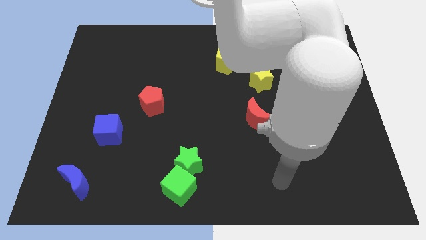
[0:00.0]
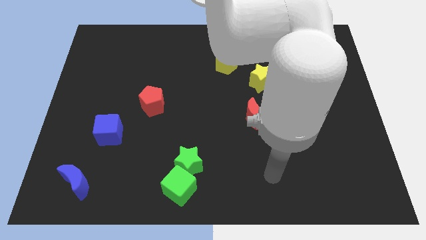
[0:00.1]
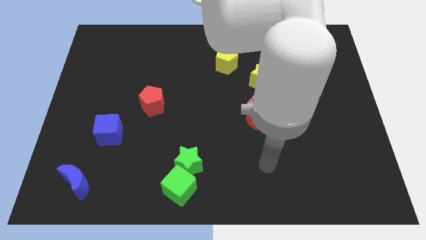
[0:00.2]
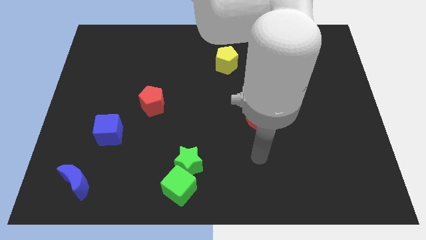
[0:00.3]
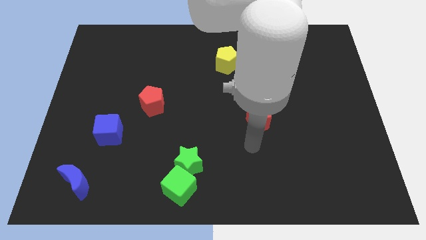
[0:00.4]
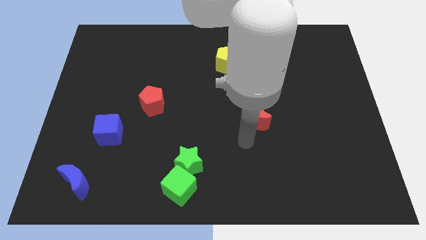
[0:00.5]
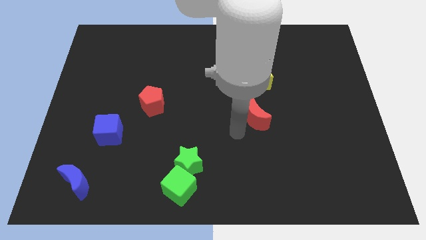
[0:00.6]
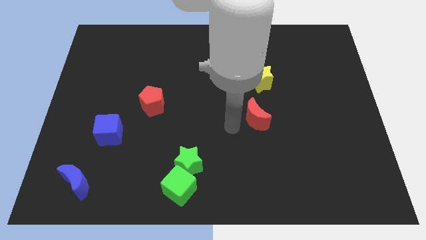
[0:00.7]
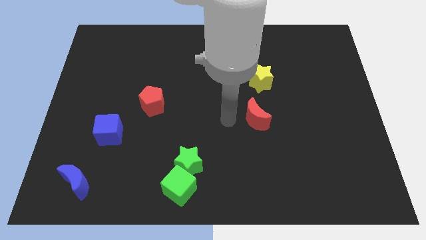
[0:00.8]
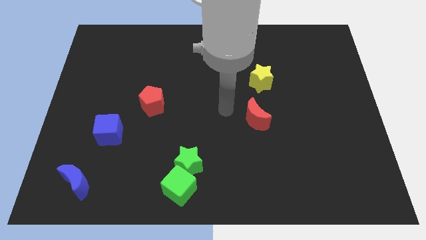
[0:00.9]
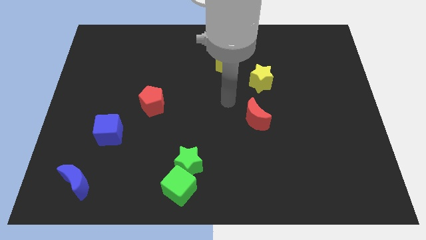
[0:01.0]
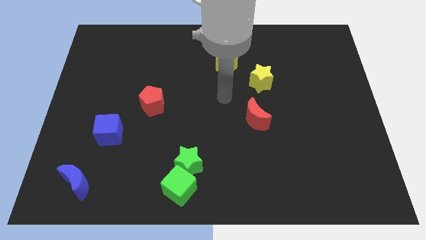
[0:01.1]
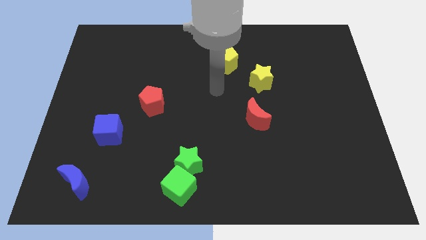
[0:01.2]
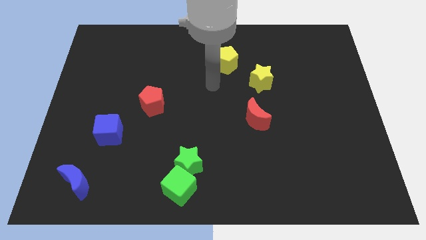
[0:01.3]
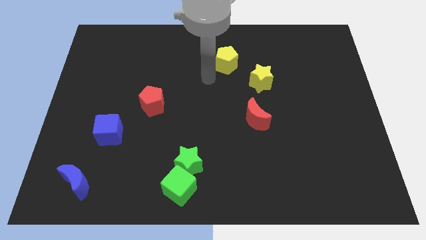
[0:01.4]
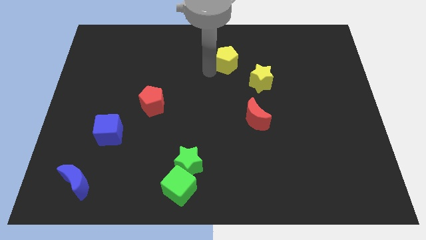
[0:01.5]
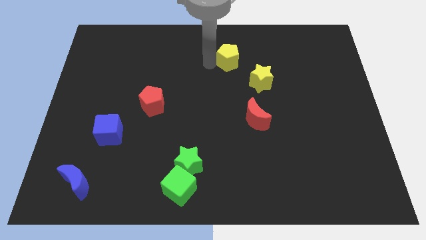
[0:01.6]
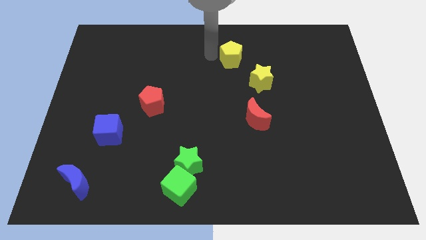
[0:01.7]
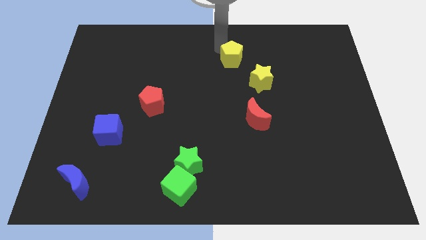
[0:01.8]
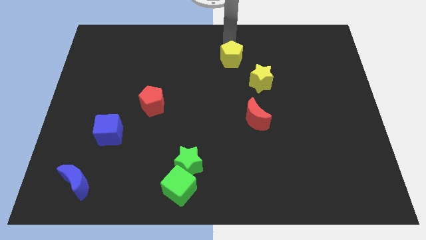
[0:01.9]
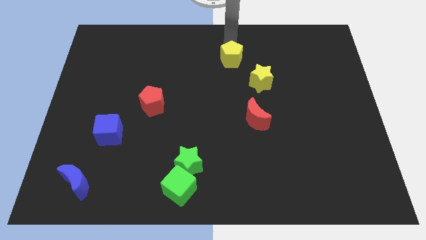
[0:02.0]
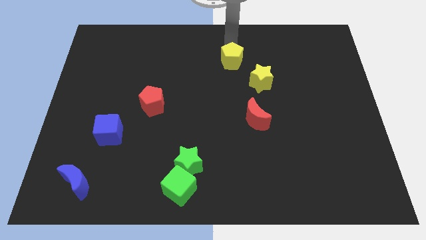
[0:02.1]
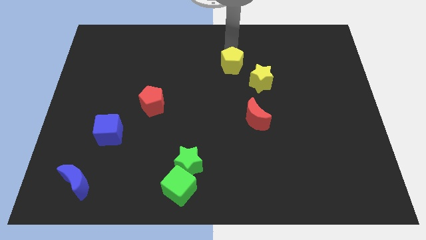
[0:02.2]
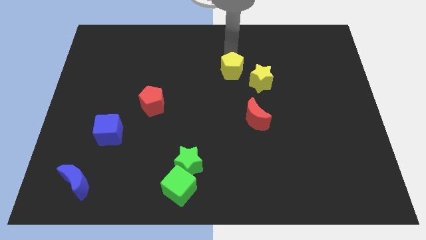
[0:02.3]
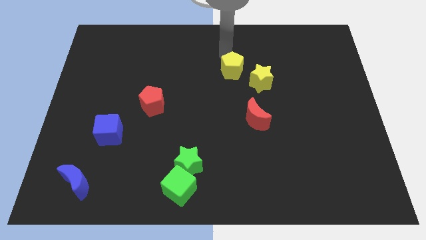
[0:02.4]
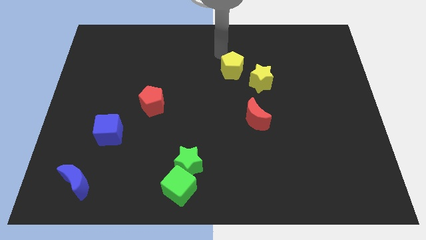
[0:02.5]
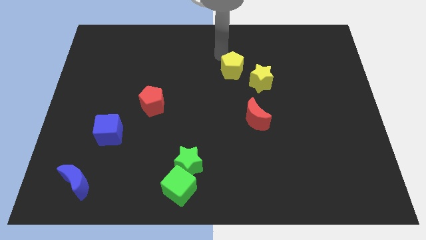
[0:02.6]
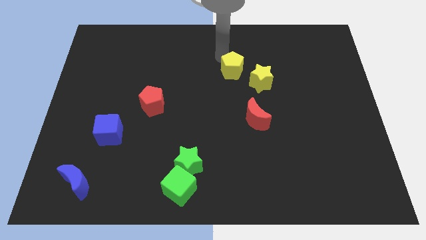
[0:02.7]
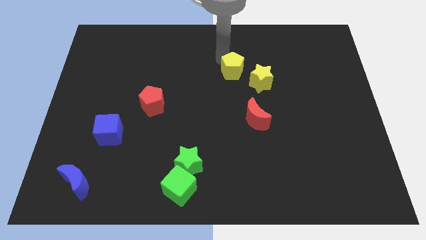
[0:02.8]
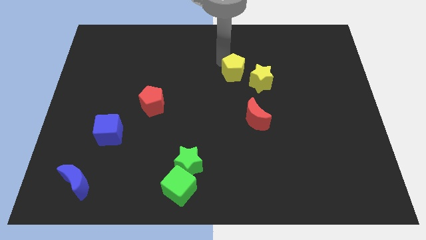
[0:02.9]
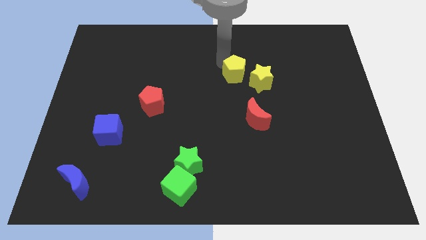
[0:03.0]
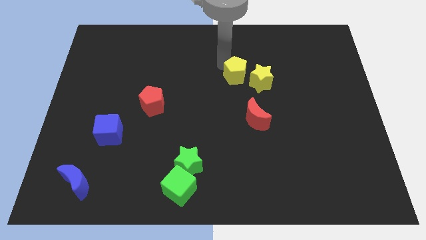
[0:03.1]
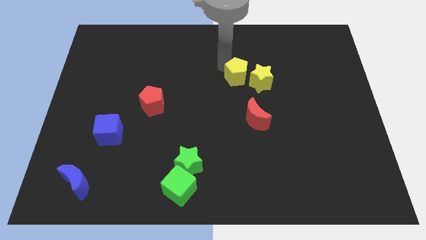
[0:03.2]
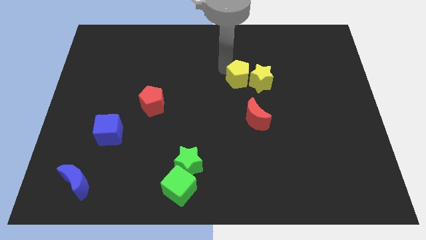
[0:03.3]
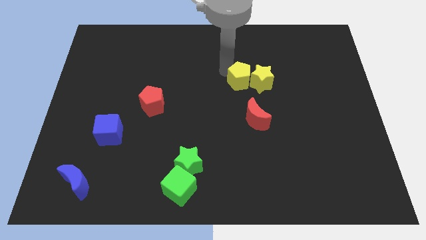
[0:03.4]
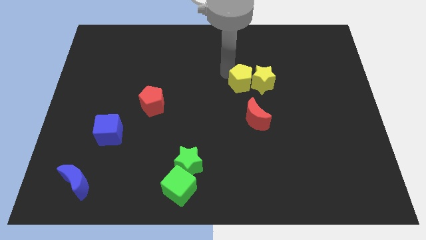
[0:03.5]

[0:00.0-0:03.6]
push the yellow pentagon downwards and to the right a little bit

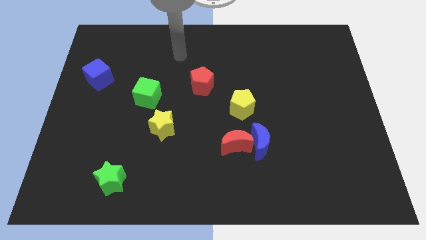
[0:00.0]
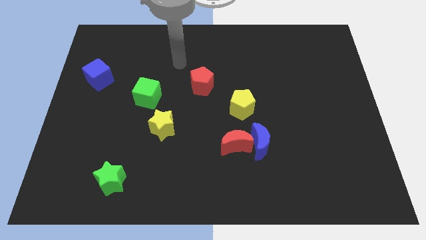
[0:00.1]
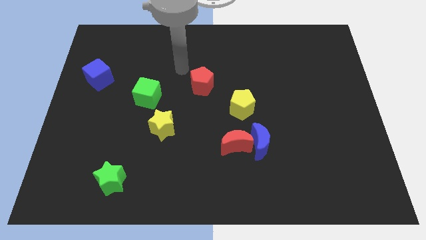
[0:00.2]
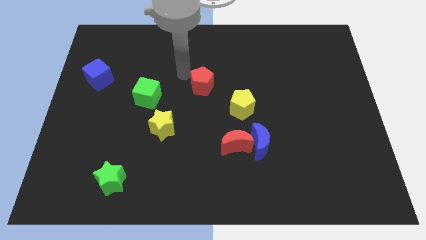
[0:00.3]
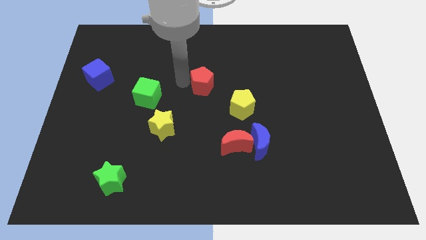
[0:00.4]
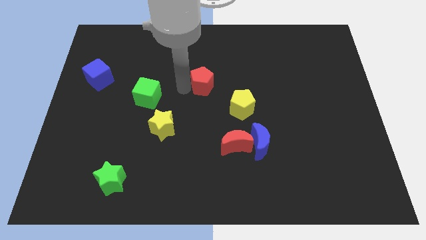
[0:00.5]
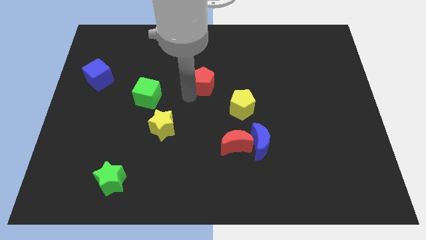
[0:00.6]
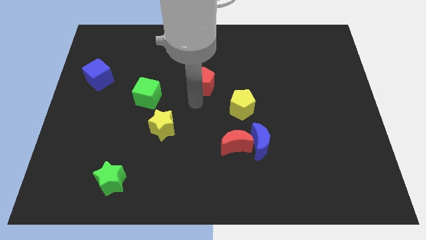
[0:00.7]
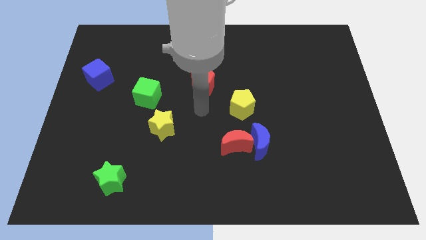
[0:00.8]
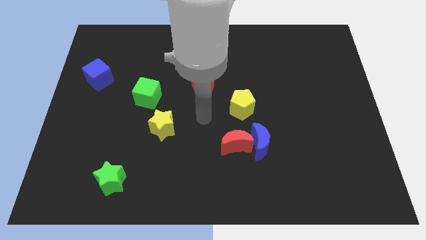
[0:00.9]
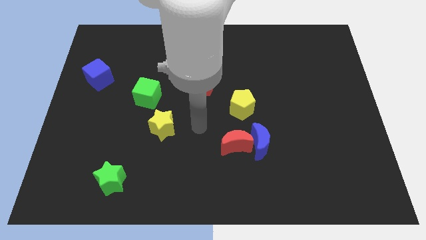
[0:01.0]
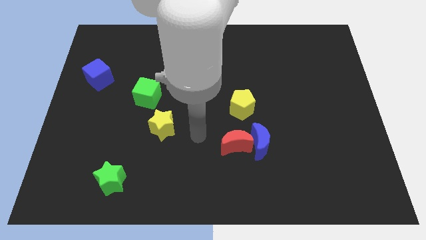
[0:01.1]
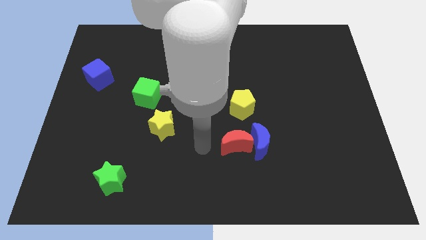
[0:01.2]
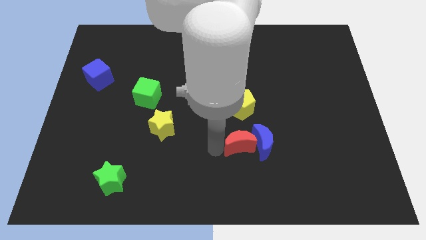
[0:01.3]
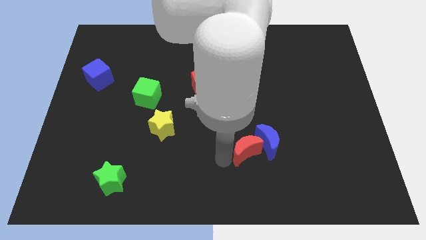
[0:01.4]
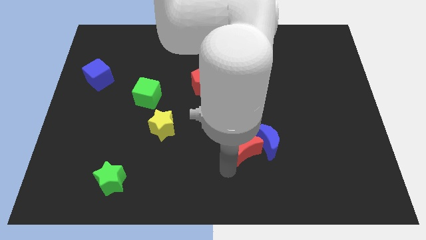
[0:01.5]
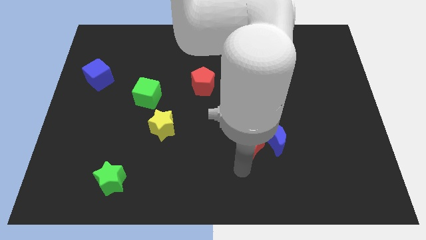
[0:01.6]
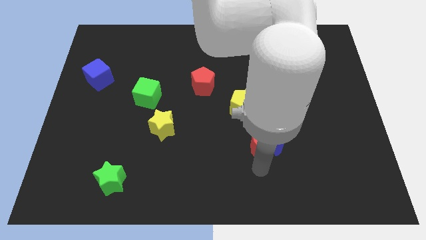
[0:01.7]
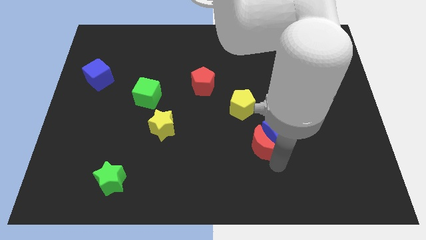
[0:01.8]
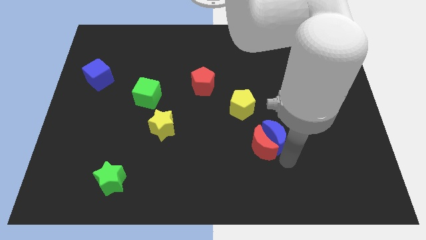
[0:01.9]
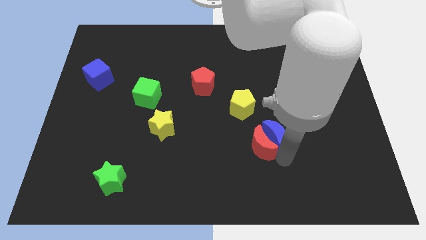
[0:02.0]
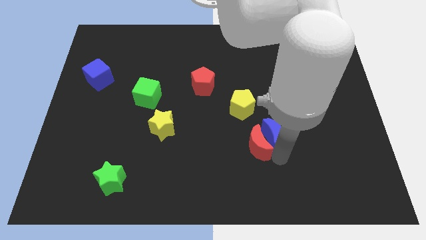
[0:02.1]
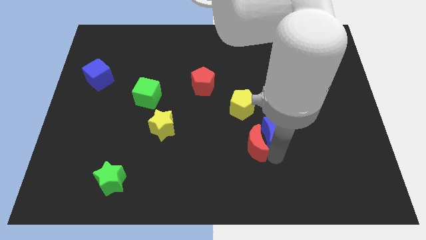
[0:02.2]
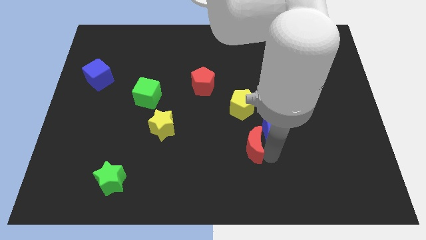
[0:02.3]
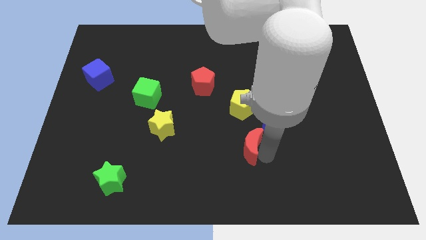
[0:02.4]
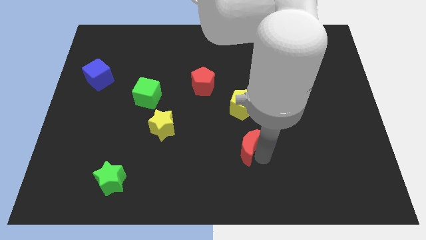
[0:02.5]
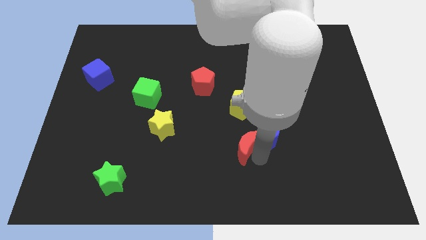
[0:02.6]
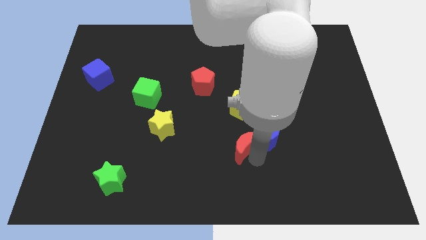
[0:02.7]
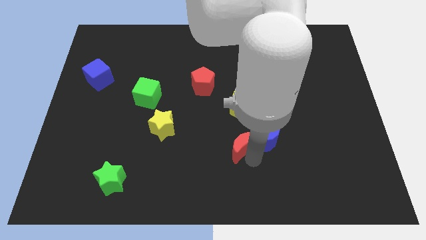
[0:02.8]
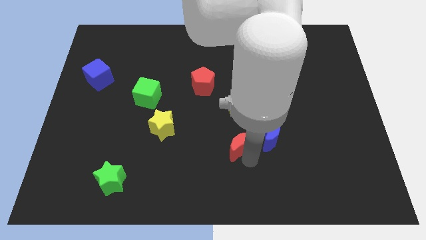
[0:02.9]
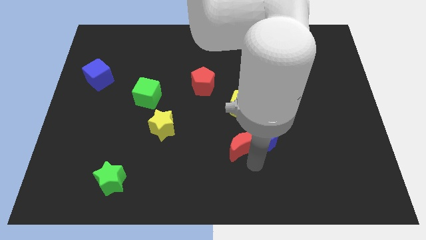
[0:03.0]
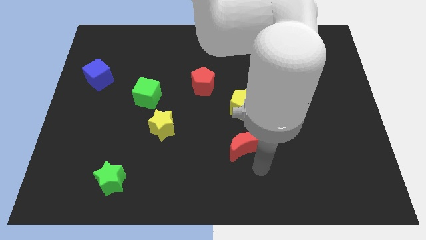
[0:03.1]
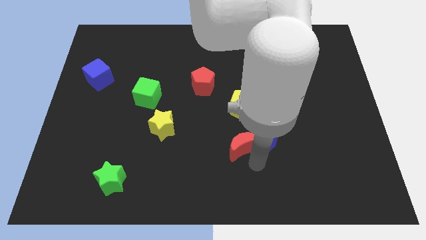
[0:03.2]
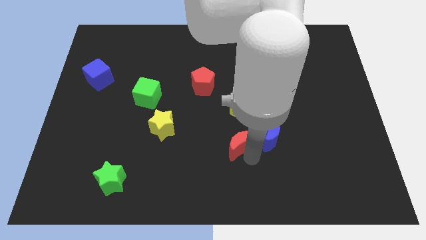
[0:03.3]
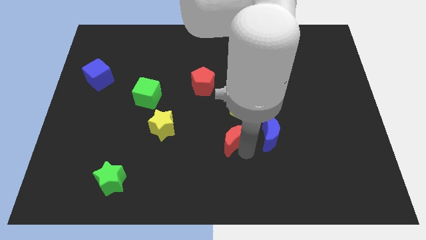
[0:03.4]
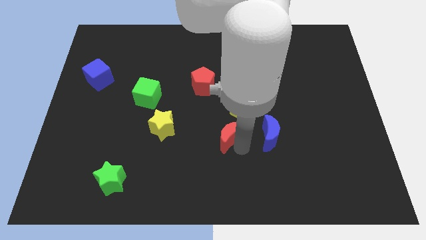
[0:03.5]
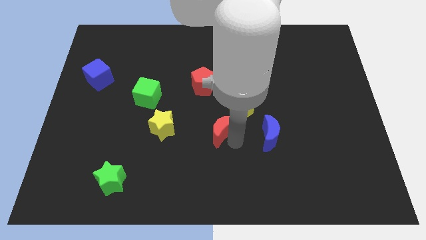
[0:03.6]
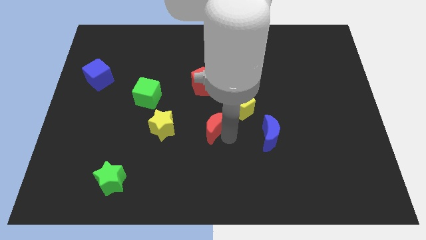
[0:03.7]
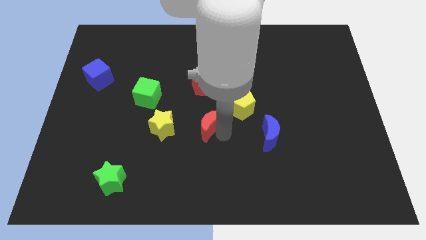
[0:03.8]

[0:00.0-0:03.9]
push the red moon up and left diagonally a bit

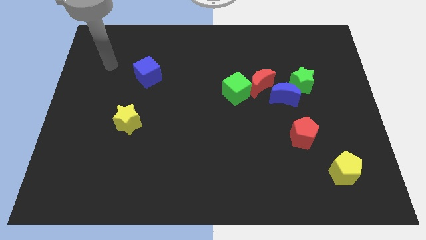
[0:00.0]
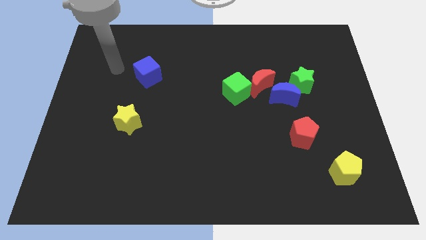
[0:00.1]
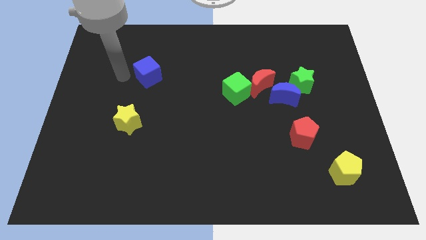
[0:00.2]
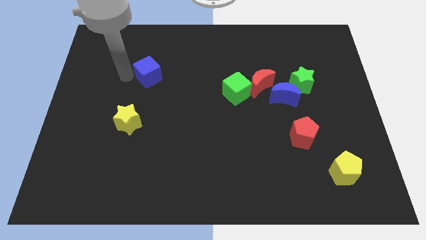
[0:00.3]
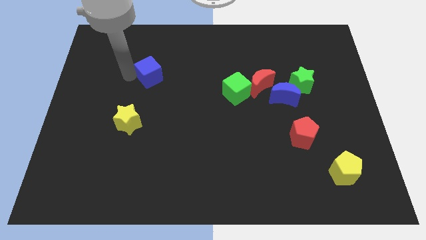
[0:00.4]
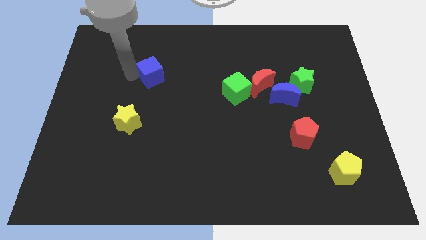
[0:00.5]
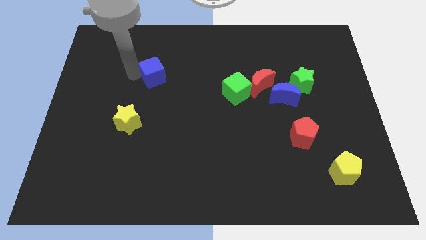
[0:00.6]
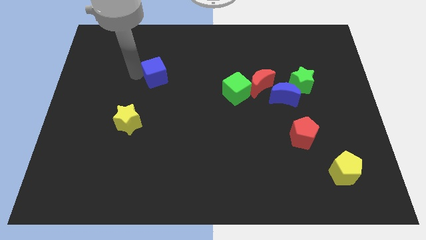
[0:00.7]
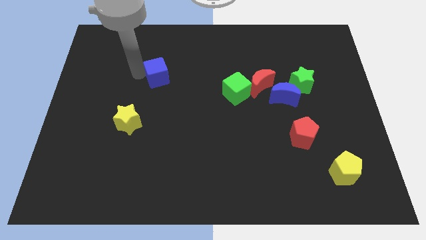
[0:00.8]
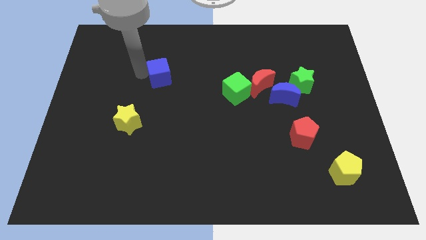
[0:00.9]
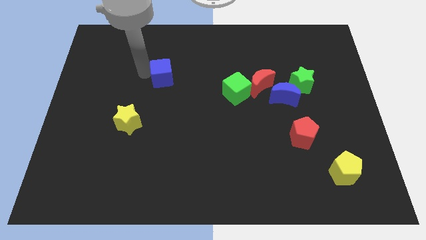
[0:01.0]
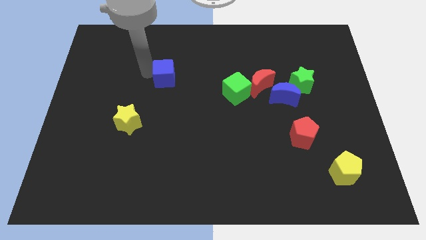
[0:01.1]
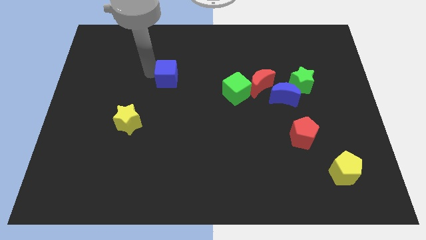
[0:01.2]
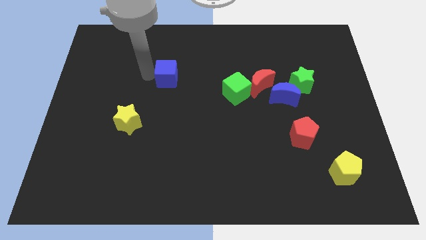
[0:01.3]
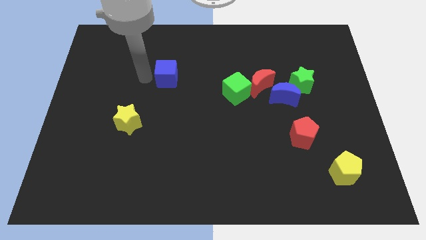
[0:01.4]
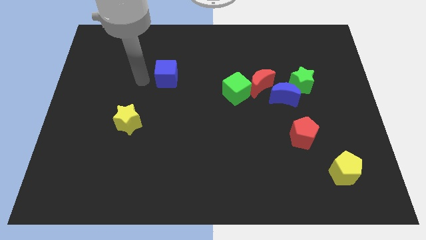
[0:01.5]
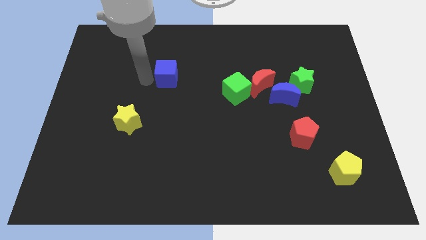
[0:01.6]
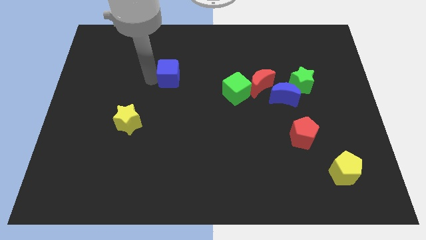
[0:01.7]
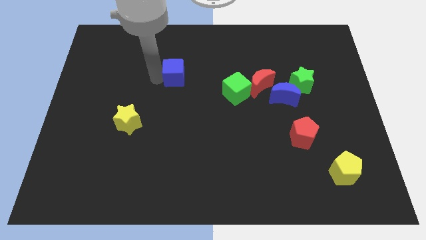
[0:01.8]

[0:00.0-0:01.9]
push the blue cube slightly to the right
